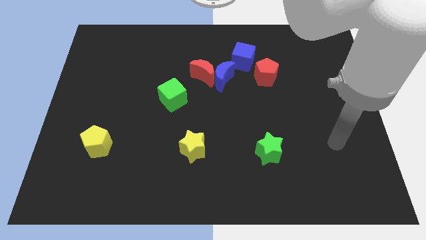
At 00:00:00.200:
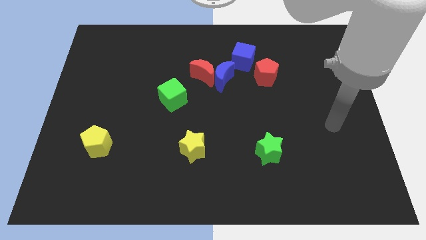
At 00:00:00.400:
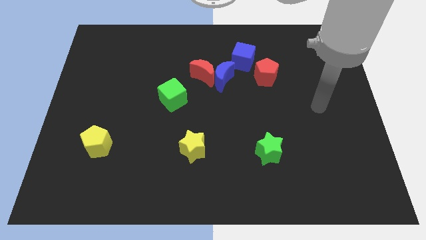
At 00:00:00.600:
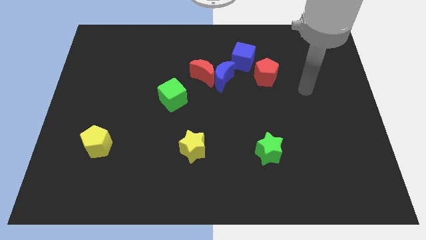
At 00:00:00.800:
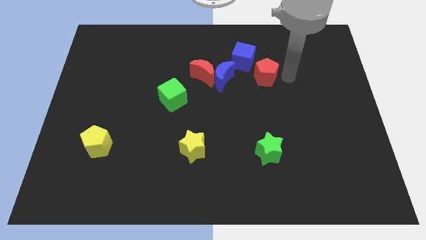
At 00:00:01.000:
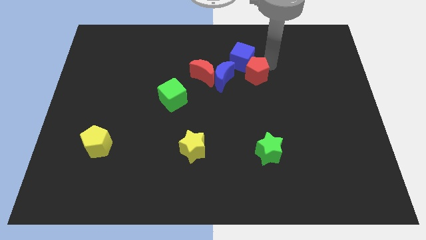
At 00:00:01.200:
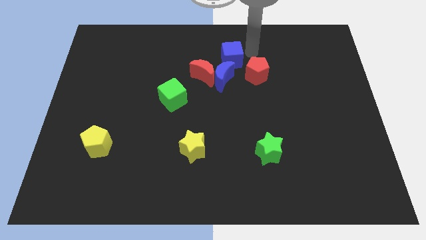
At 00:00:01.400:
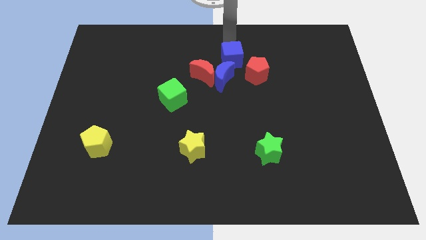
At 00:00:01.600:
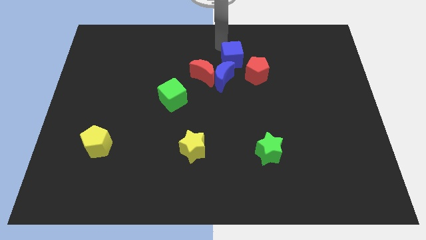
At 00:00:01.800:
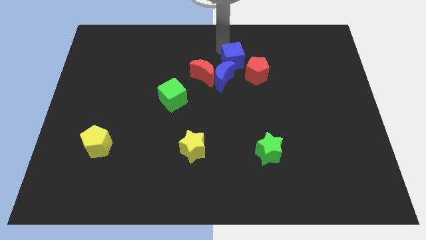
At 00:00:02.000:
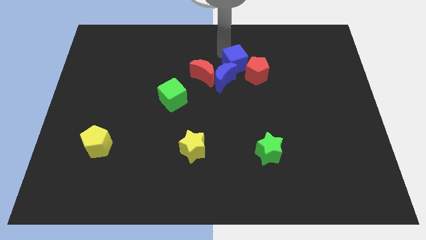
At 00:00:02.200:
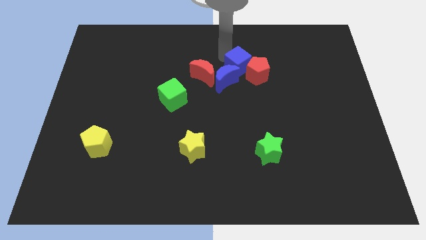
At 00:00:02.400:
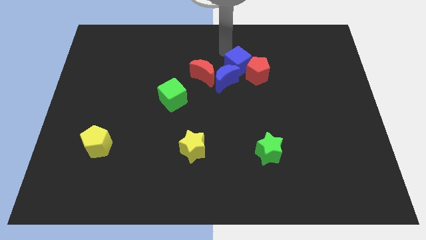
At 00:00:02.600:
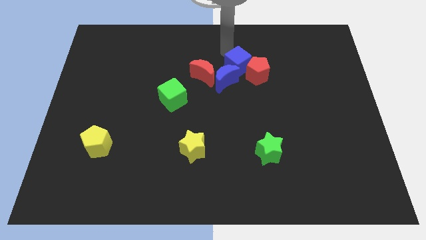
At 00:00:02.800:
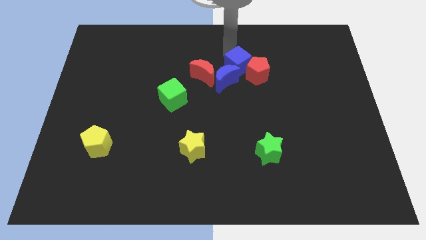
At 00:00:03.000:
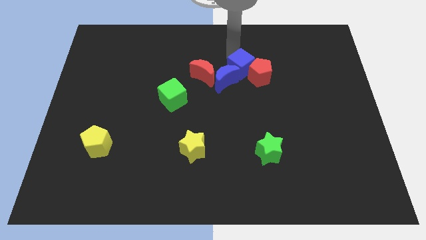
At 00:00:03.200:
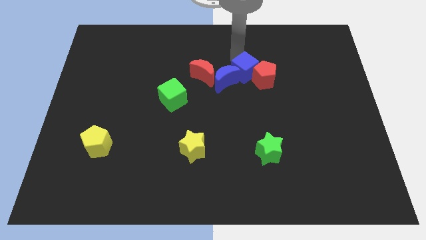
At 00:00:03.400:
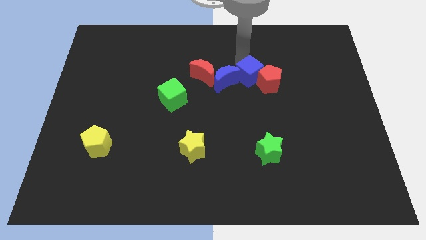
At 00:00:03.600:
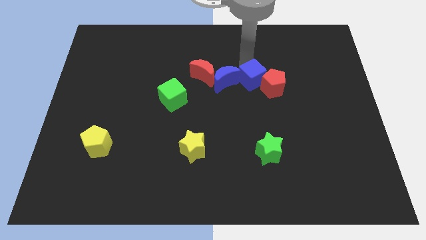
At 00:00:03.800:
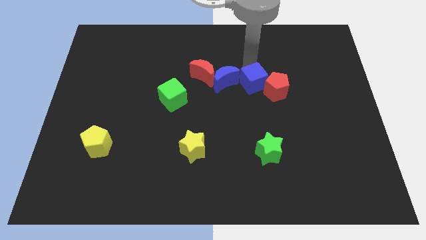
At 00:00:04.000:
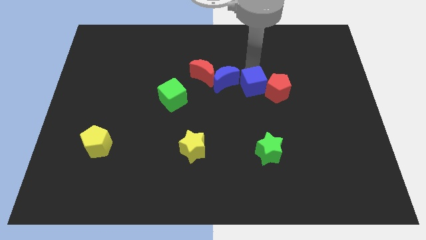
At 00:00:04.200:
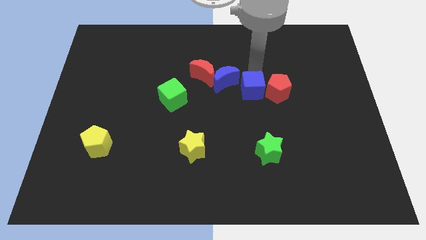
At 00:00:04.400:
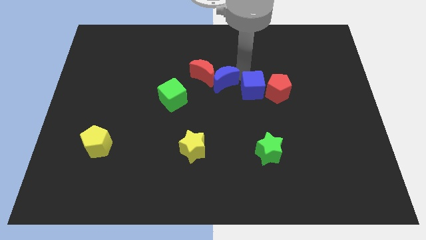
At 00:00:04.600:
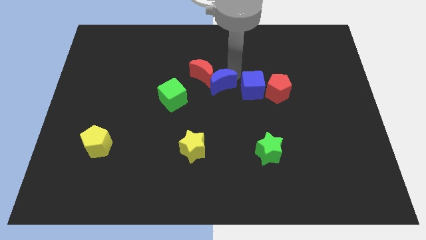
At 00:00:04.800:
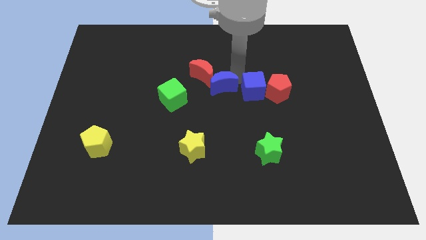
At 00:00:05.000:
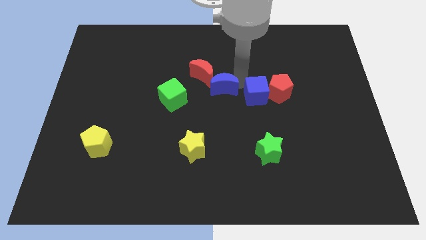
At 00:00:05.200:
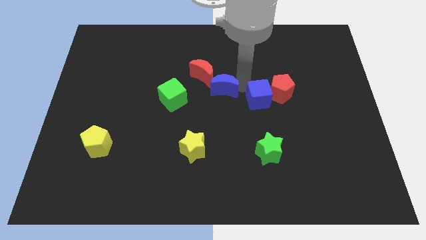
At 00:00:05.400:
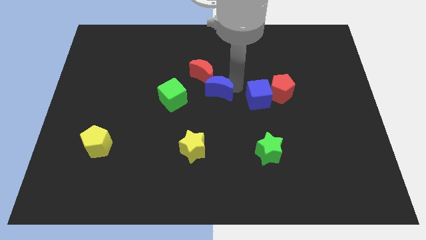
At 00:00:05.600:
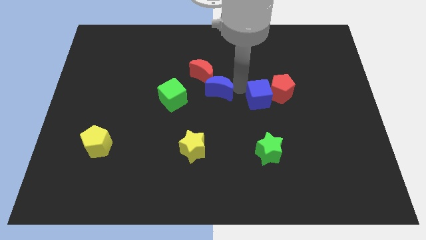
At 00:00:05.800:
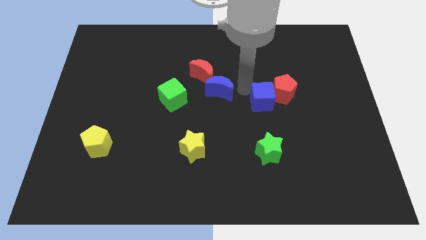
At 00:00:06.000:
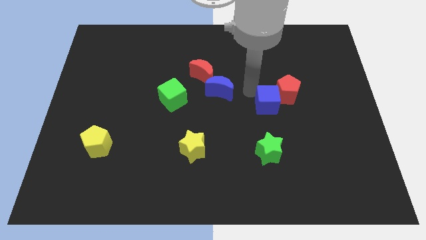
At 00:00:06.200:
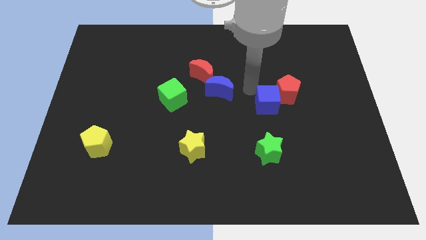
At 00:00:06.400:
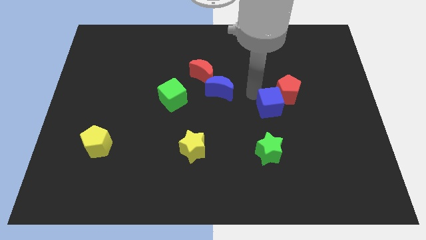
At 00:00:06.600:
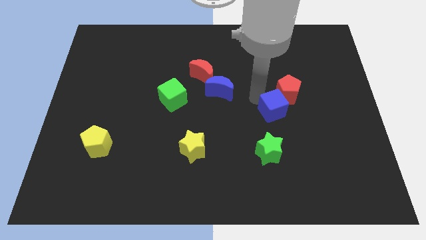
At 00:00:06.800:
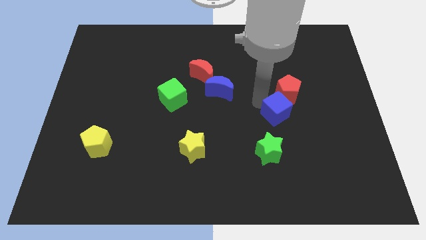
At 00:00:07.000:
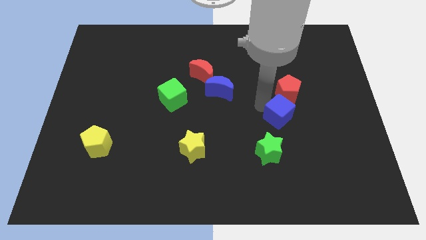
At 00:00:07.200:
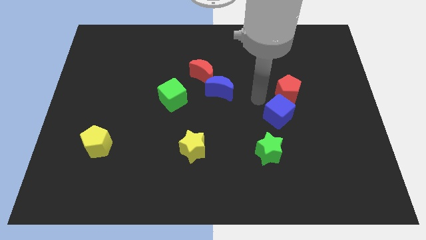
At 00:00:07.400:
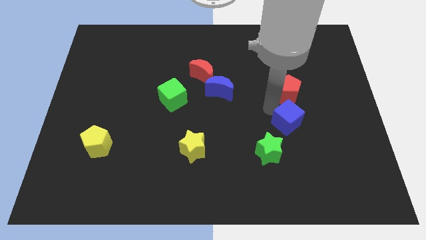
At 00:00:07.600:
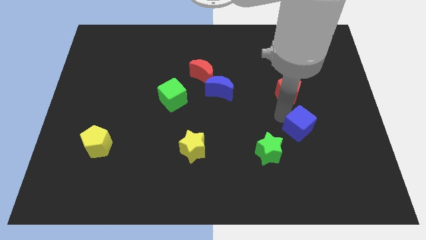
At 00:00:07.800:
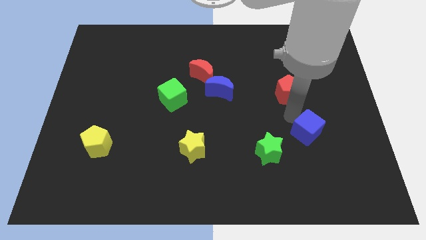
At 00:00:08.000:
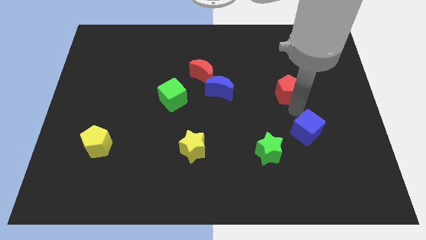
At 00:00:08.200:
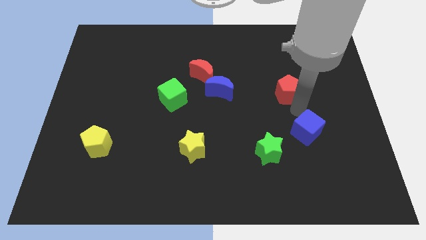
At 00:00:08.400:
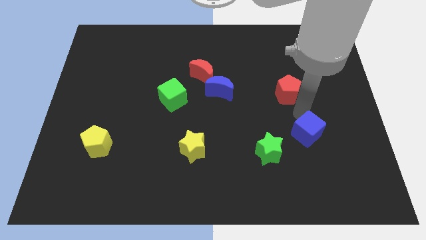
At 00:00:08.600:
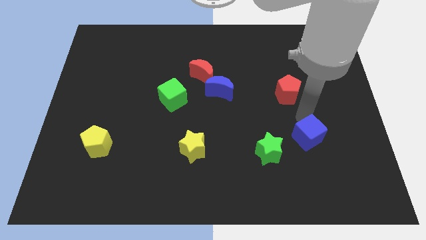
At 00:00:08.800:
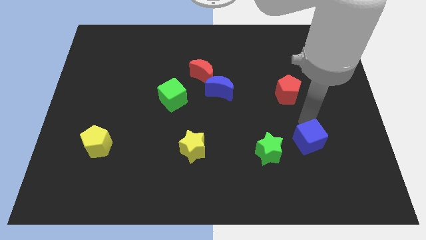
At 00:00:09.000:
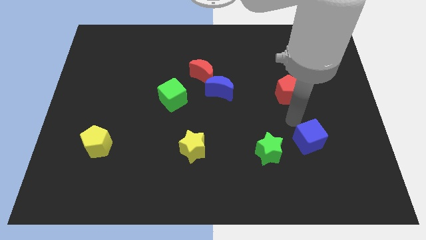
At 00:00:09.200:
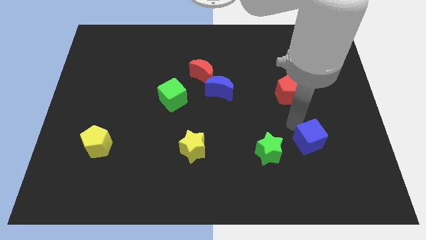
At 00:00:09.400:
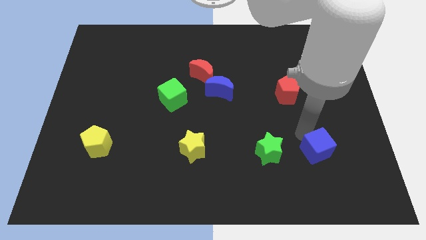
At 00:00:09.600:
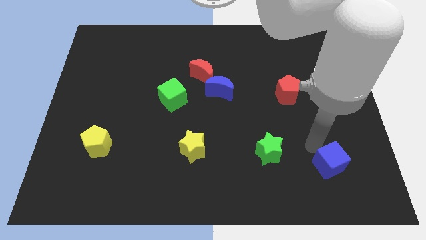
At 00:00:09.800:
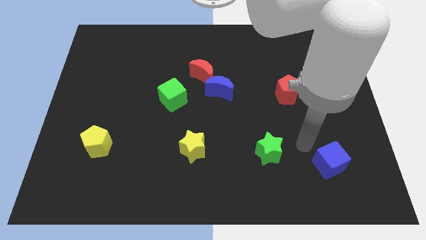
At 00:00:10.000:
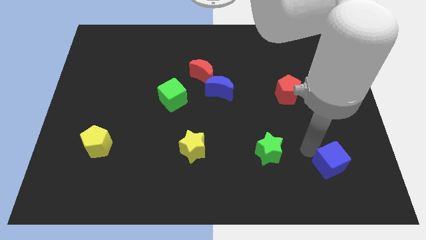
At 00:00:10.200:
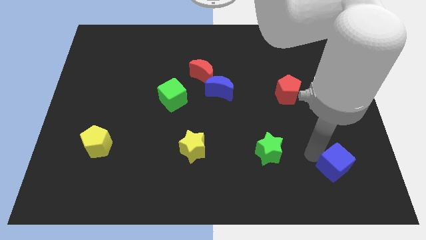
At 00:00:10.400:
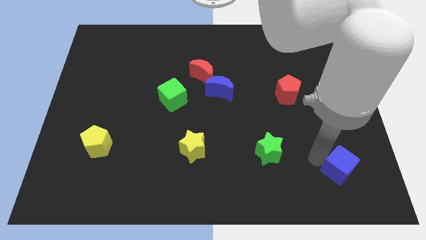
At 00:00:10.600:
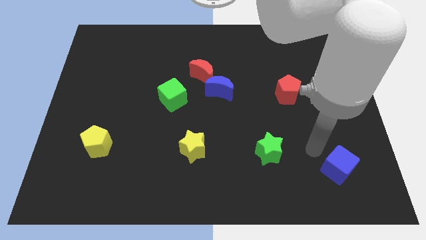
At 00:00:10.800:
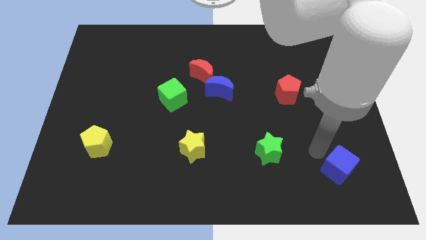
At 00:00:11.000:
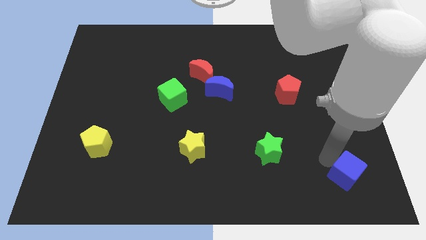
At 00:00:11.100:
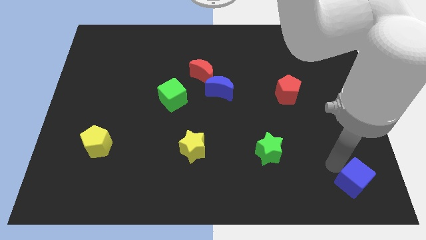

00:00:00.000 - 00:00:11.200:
slide the blue cube to the bottom right corner
